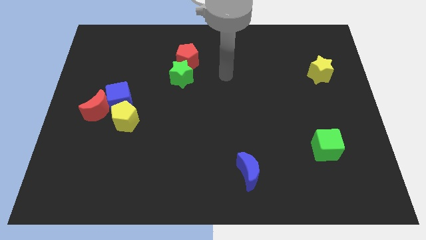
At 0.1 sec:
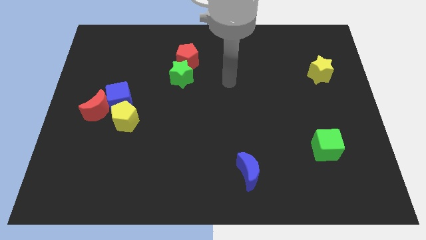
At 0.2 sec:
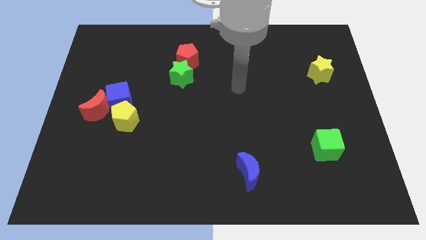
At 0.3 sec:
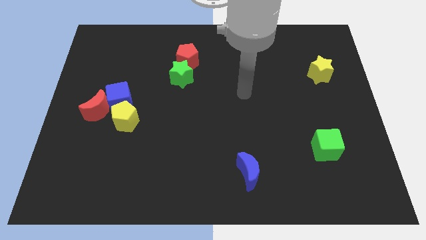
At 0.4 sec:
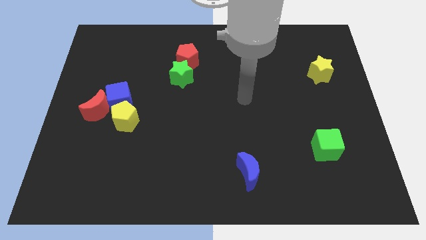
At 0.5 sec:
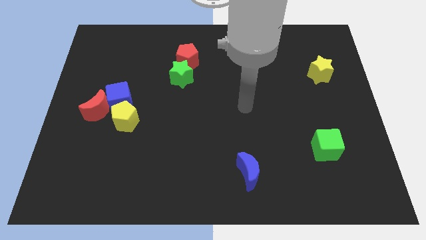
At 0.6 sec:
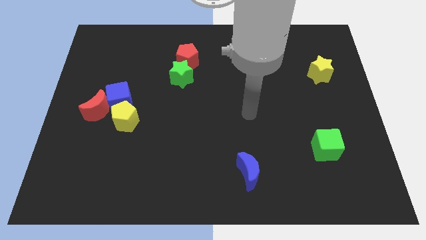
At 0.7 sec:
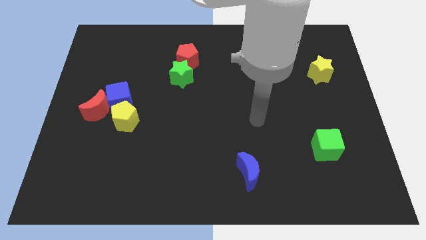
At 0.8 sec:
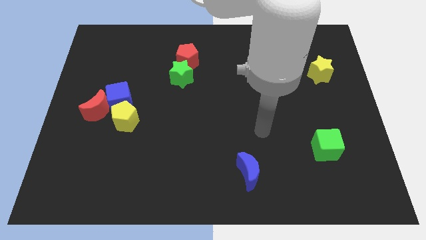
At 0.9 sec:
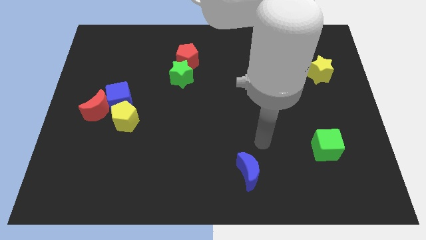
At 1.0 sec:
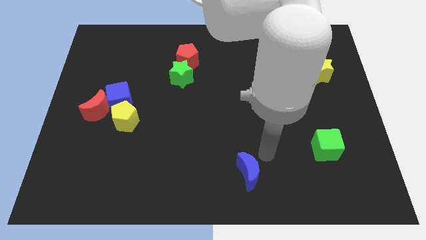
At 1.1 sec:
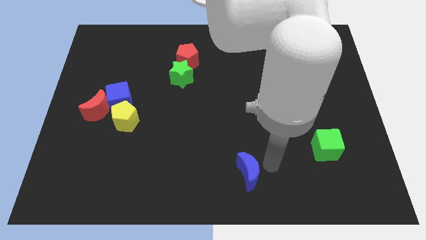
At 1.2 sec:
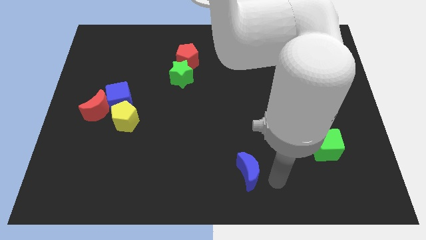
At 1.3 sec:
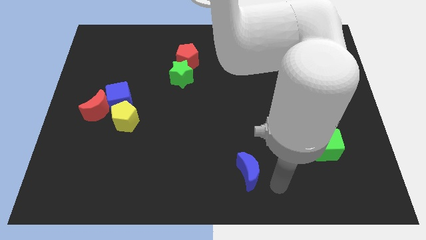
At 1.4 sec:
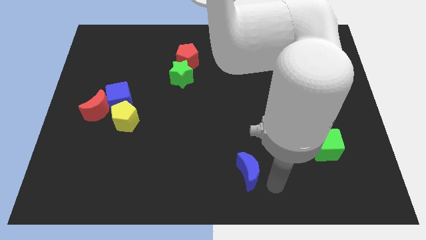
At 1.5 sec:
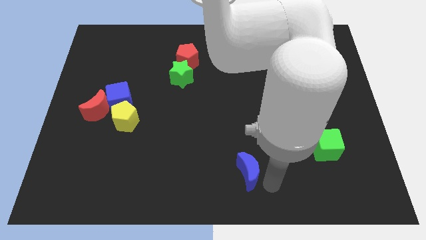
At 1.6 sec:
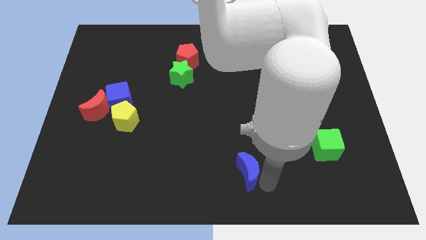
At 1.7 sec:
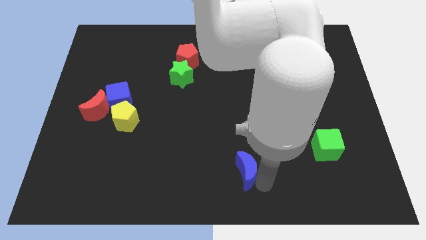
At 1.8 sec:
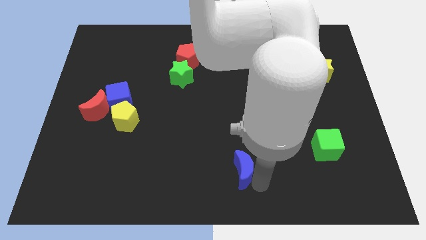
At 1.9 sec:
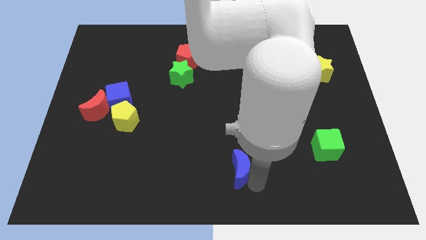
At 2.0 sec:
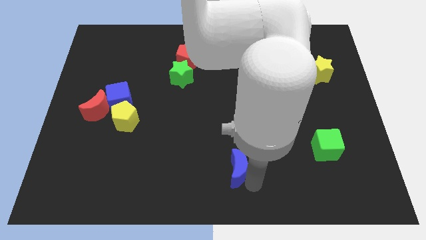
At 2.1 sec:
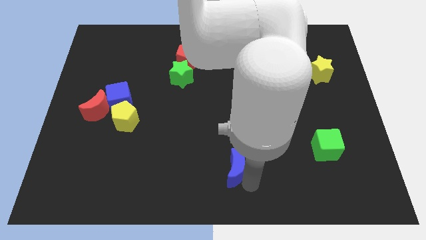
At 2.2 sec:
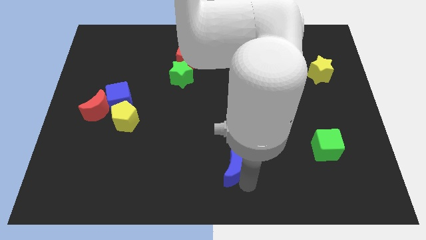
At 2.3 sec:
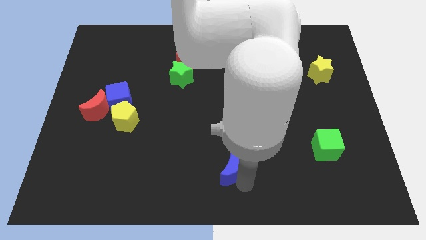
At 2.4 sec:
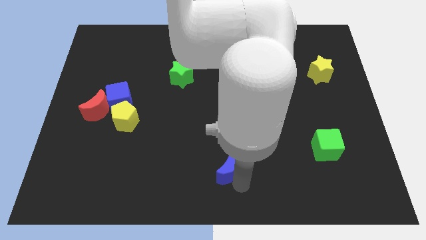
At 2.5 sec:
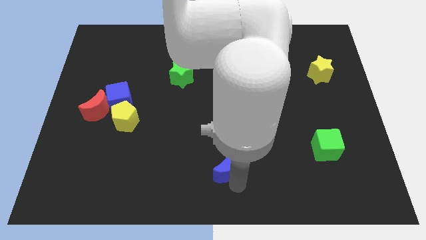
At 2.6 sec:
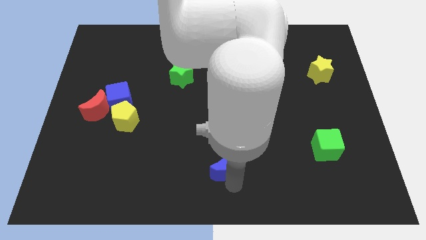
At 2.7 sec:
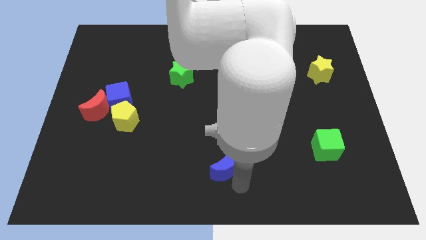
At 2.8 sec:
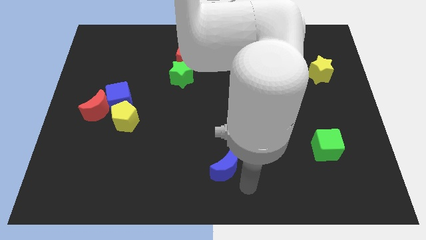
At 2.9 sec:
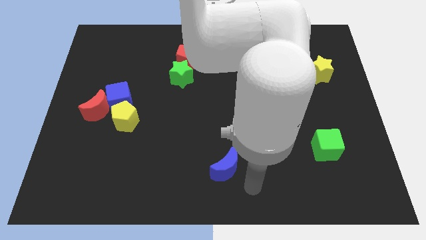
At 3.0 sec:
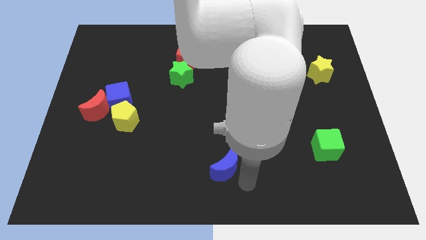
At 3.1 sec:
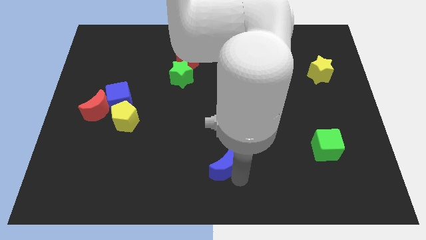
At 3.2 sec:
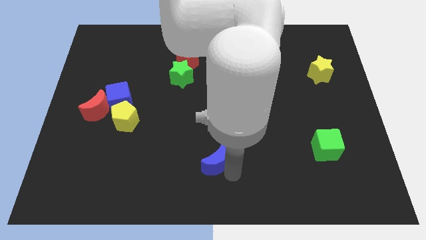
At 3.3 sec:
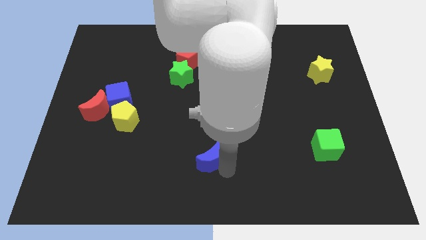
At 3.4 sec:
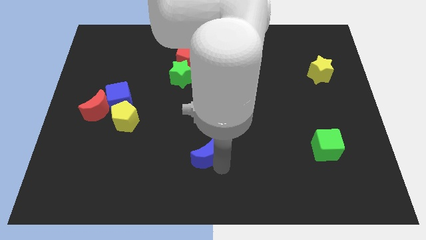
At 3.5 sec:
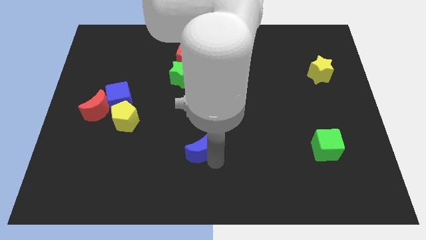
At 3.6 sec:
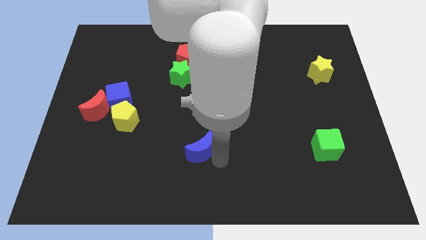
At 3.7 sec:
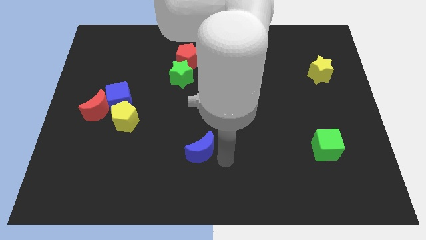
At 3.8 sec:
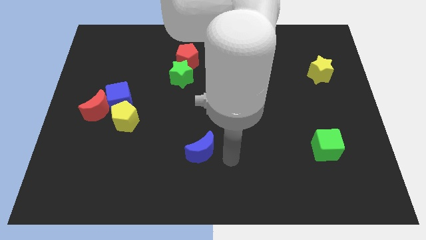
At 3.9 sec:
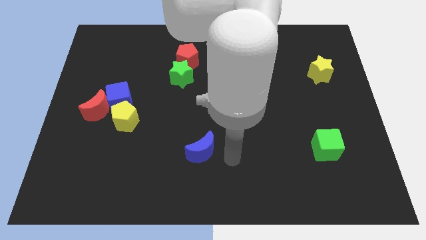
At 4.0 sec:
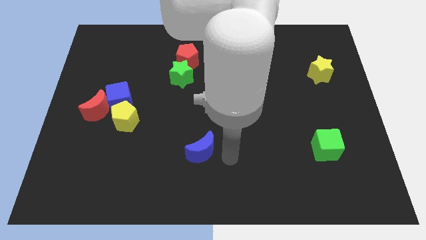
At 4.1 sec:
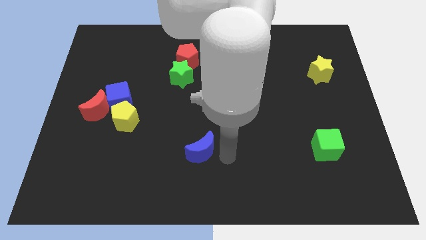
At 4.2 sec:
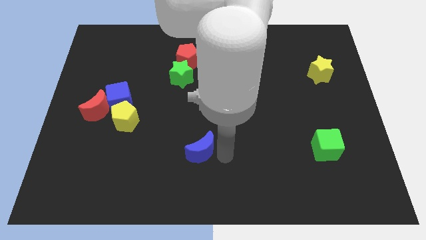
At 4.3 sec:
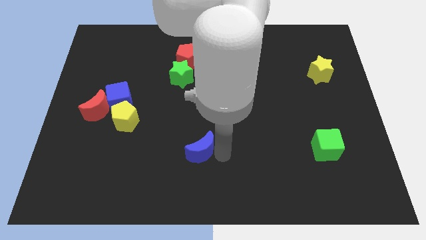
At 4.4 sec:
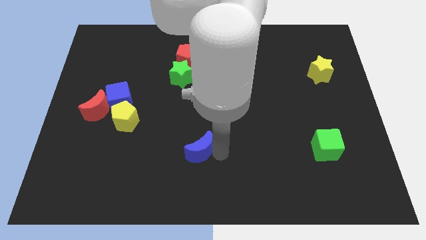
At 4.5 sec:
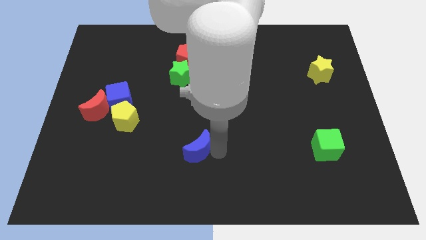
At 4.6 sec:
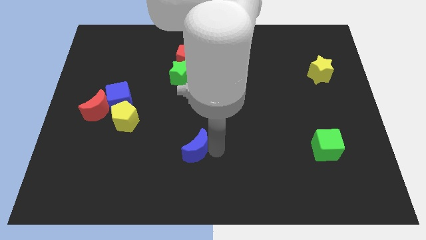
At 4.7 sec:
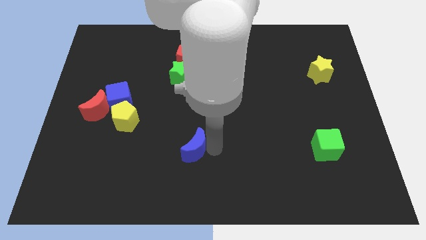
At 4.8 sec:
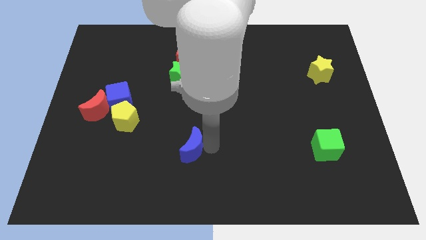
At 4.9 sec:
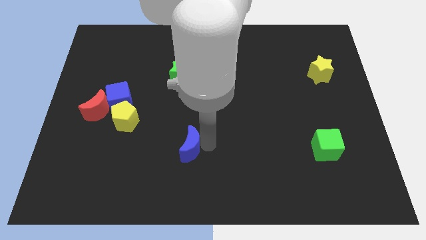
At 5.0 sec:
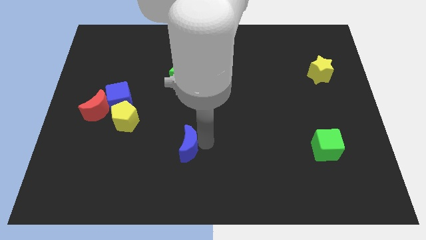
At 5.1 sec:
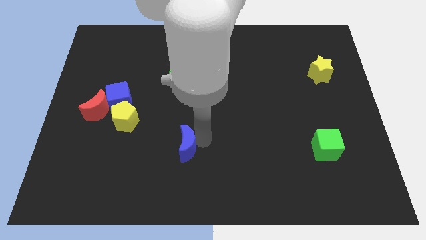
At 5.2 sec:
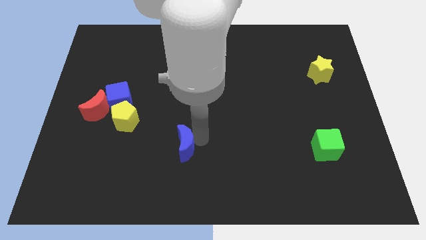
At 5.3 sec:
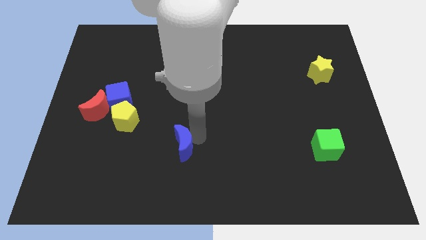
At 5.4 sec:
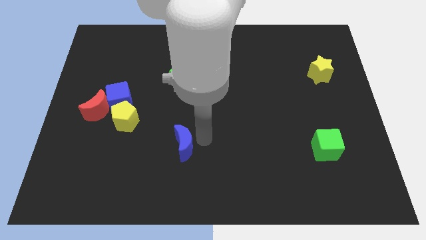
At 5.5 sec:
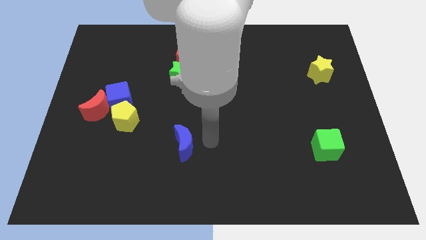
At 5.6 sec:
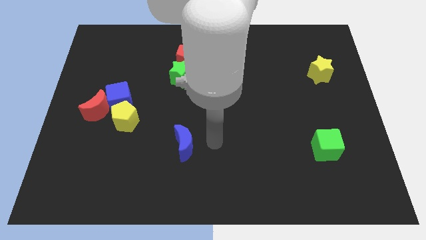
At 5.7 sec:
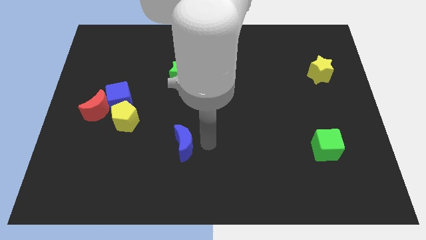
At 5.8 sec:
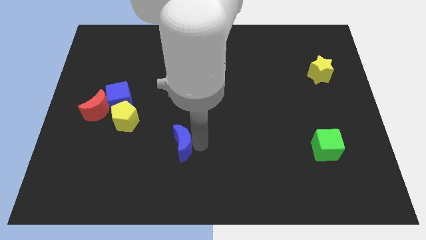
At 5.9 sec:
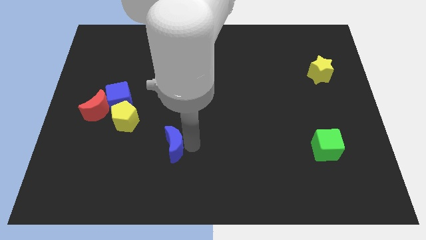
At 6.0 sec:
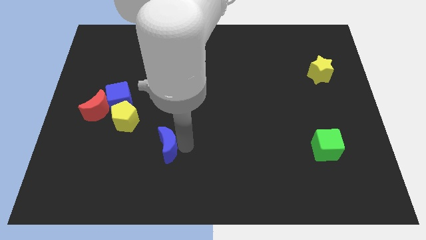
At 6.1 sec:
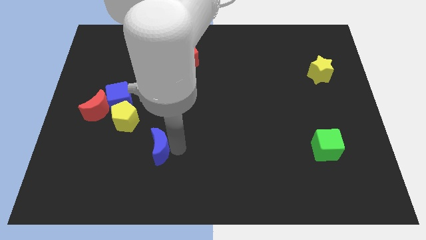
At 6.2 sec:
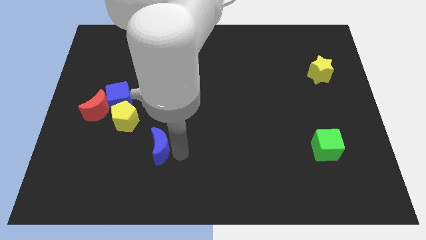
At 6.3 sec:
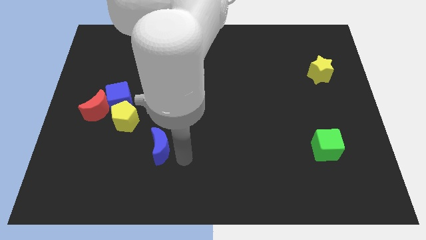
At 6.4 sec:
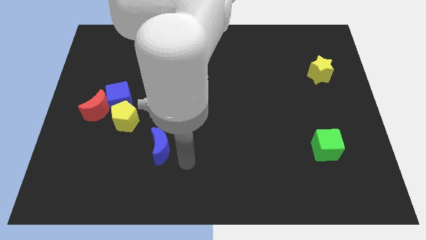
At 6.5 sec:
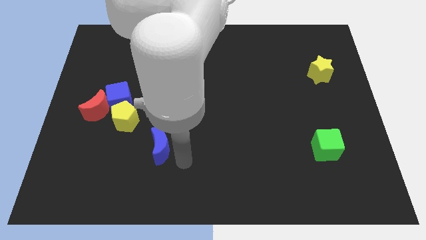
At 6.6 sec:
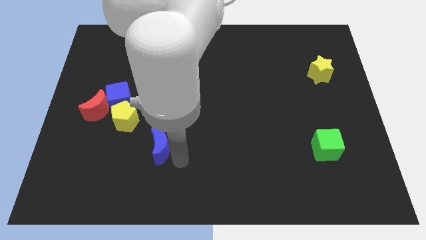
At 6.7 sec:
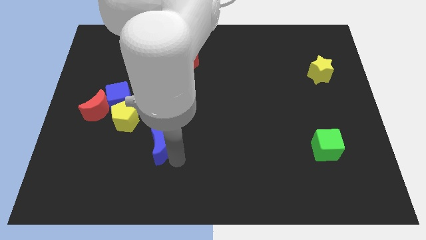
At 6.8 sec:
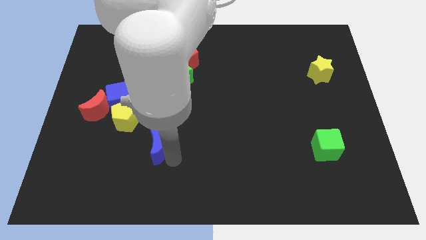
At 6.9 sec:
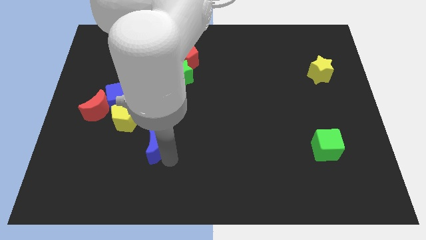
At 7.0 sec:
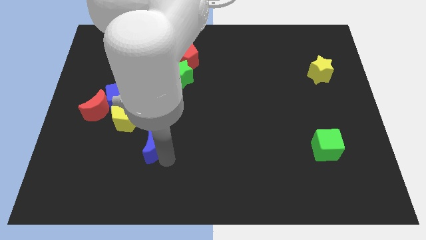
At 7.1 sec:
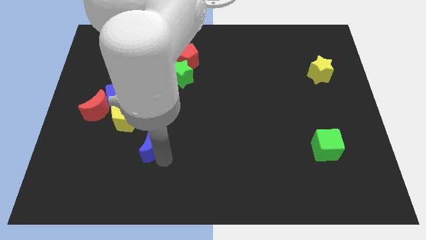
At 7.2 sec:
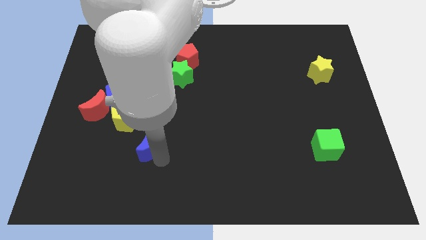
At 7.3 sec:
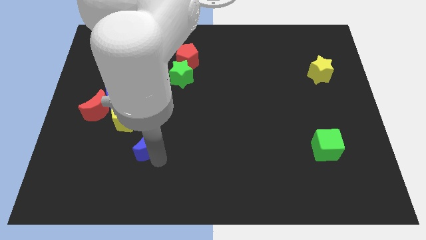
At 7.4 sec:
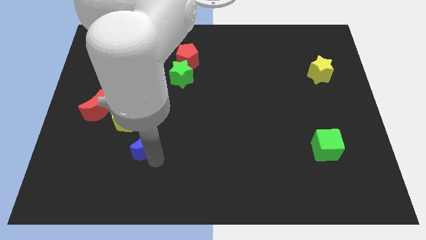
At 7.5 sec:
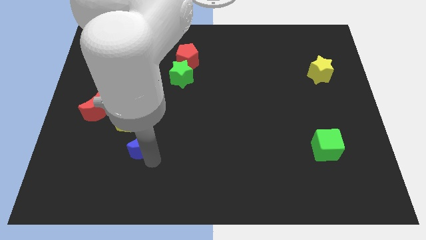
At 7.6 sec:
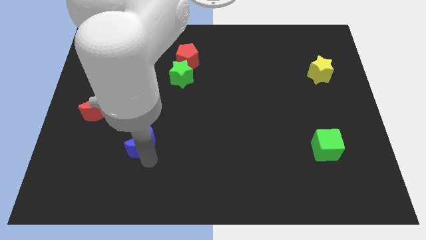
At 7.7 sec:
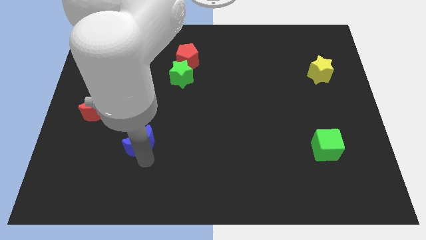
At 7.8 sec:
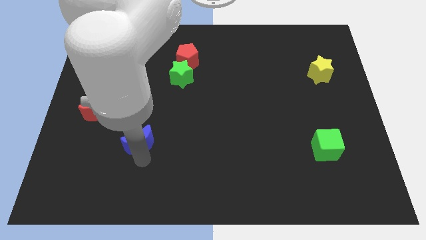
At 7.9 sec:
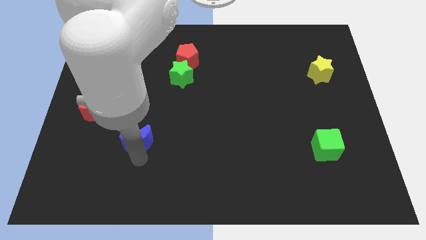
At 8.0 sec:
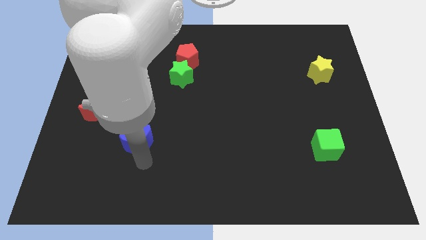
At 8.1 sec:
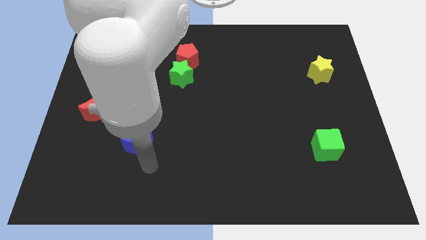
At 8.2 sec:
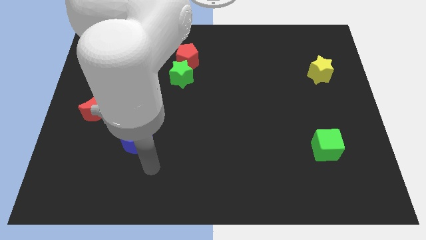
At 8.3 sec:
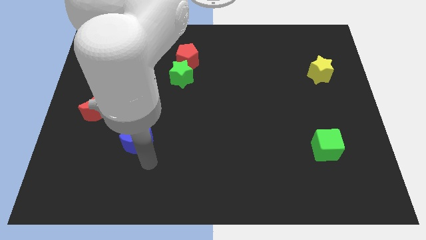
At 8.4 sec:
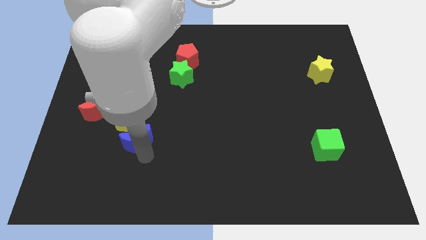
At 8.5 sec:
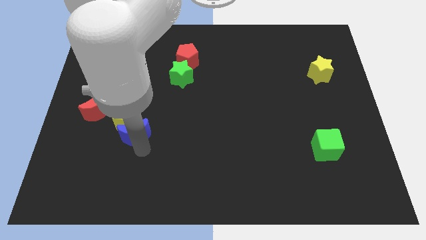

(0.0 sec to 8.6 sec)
move the blue moon towards the yellow pentagon
